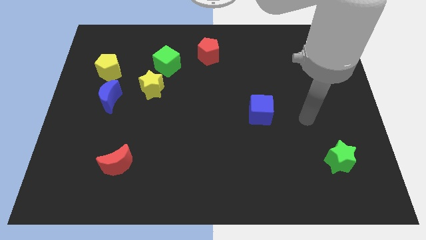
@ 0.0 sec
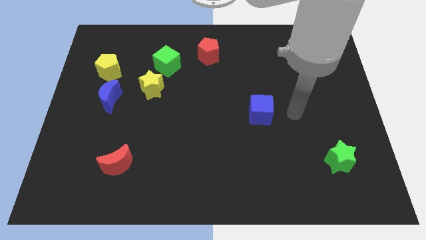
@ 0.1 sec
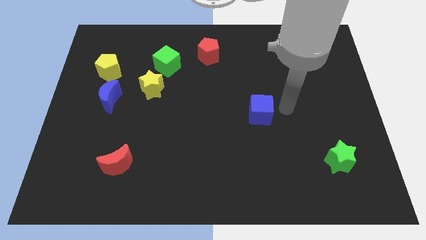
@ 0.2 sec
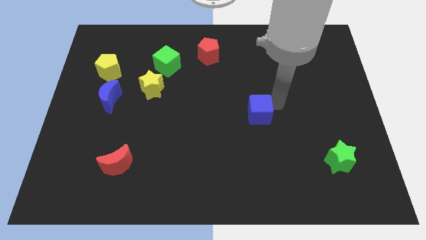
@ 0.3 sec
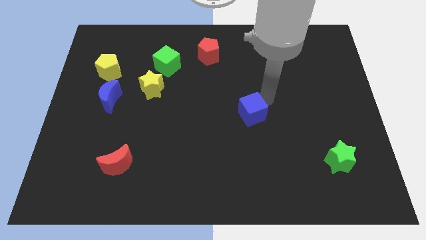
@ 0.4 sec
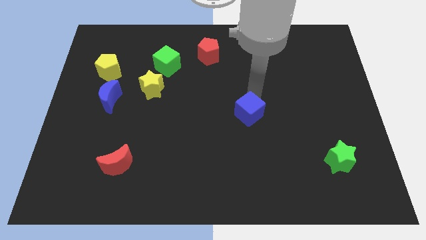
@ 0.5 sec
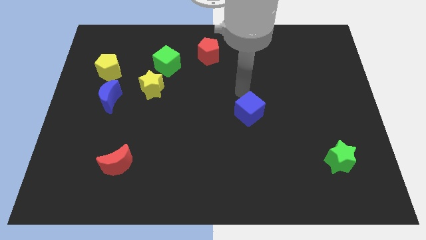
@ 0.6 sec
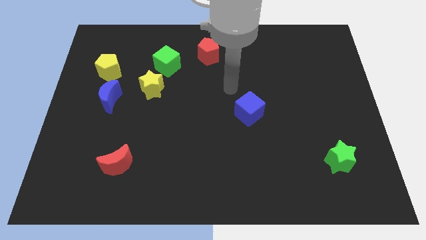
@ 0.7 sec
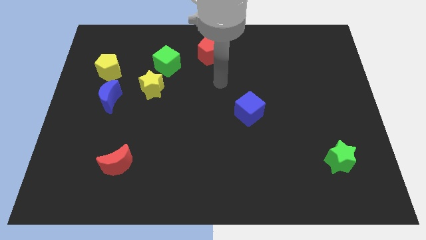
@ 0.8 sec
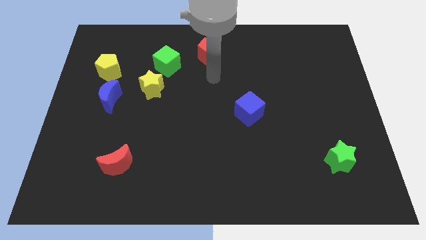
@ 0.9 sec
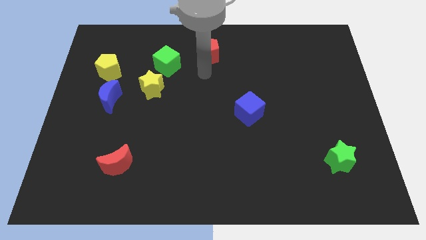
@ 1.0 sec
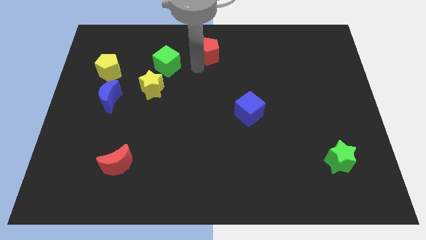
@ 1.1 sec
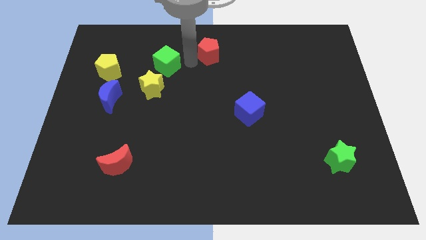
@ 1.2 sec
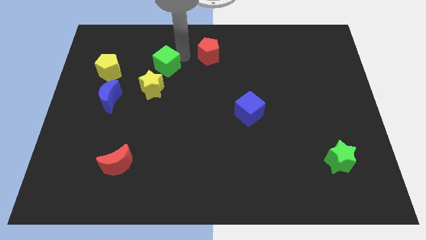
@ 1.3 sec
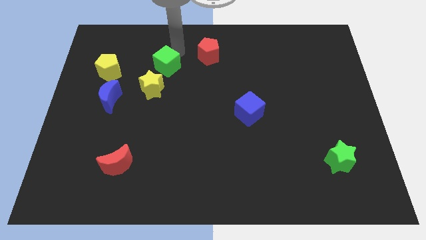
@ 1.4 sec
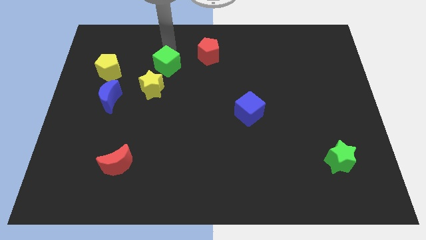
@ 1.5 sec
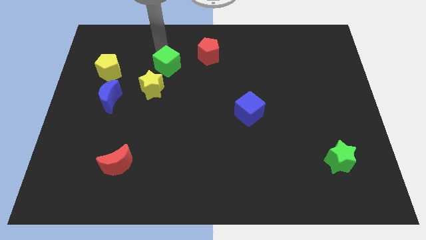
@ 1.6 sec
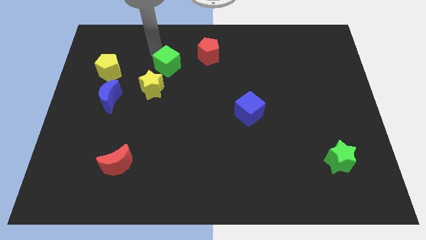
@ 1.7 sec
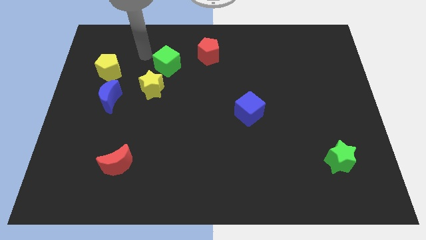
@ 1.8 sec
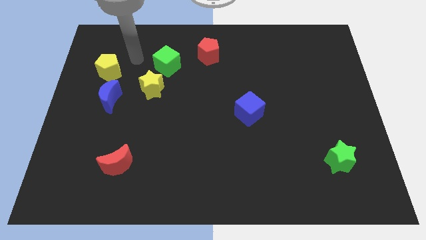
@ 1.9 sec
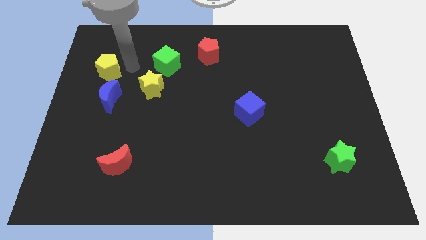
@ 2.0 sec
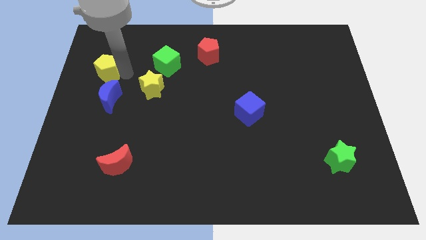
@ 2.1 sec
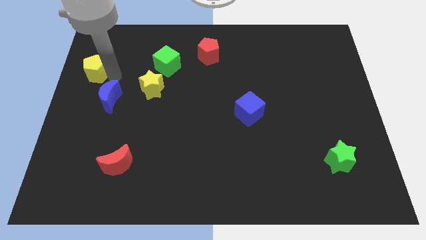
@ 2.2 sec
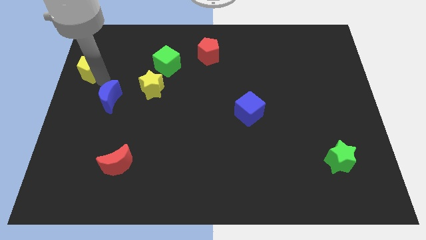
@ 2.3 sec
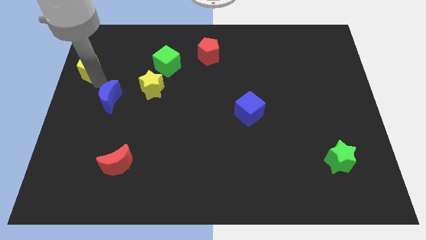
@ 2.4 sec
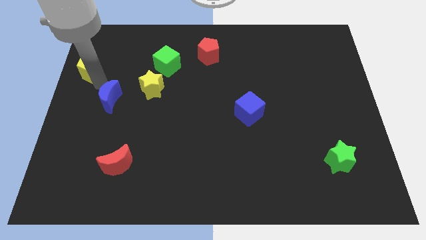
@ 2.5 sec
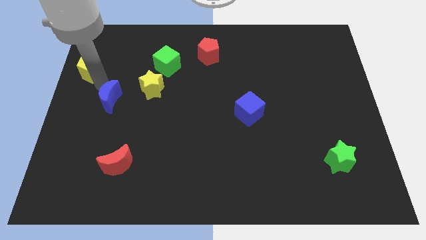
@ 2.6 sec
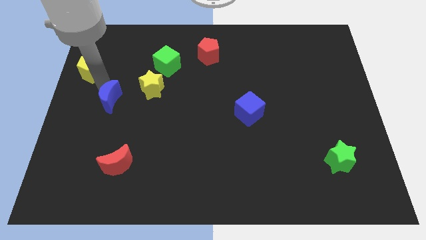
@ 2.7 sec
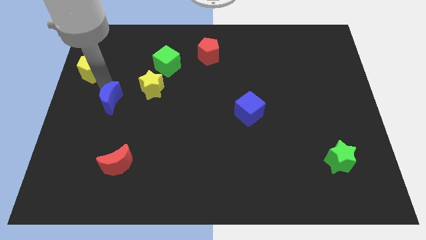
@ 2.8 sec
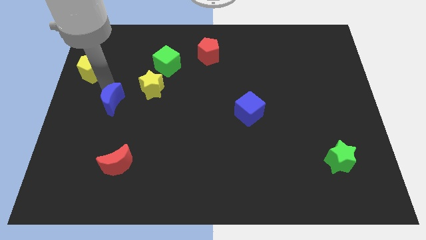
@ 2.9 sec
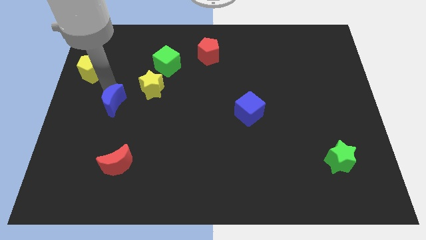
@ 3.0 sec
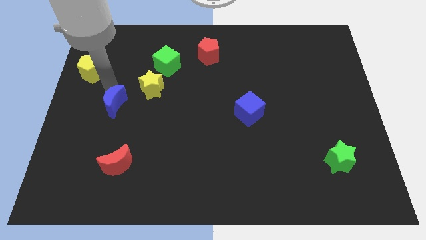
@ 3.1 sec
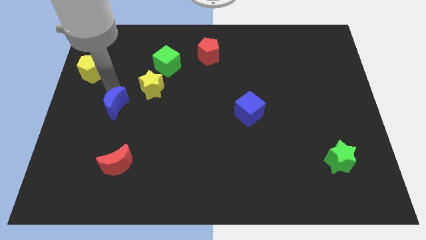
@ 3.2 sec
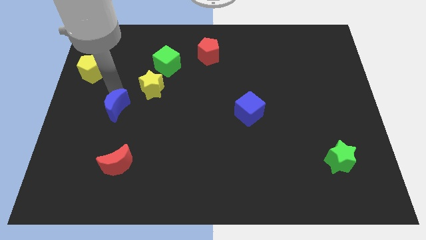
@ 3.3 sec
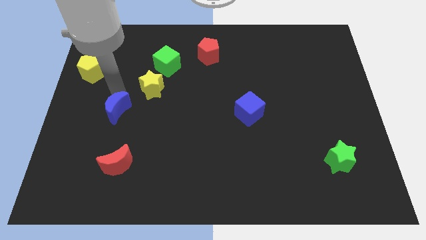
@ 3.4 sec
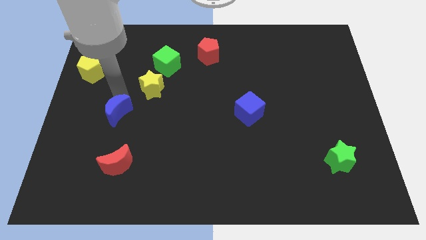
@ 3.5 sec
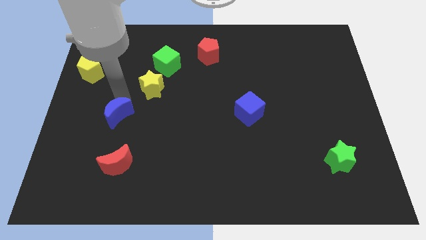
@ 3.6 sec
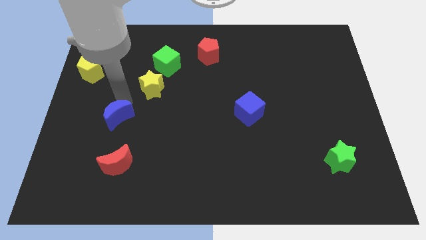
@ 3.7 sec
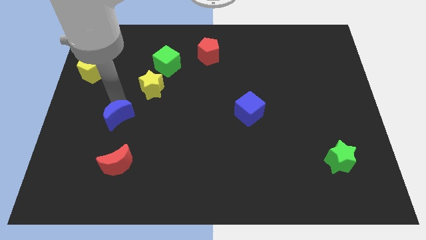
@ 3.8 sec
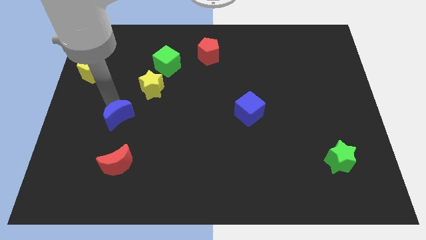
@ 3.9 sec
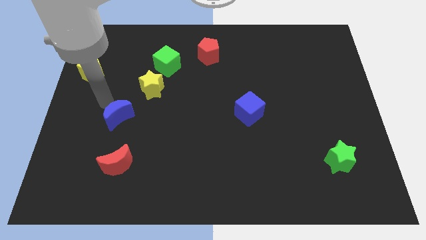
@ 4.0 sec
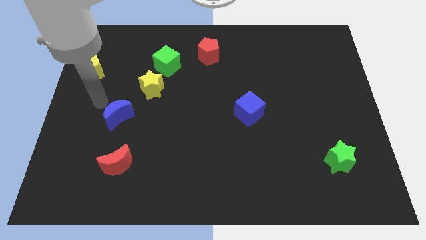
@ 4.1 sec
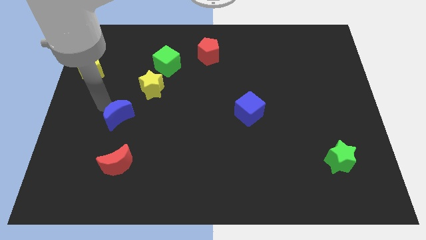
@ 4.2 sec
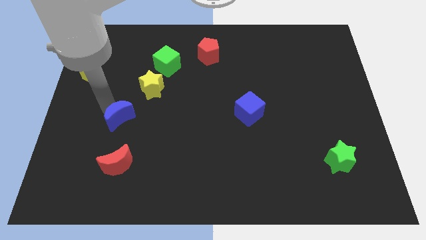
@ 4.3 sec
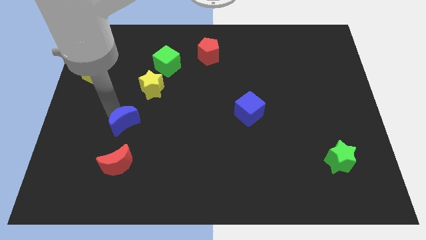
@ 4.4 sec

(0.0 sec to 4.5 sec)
slightly move the blue moon downwards and then right

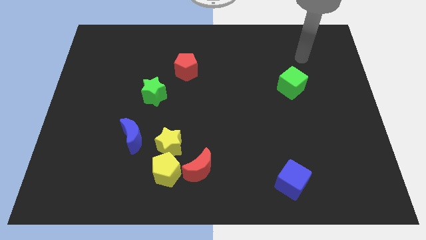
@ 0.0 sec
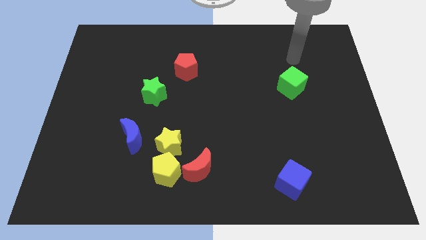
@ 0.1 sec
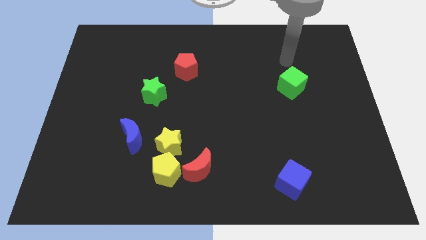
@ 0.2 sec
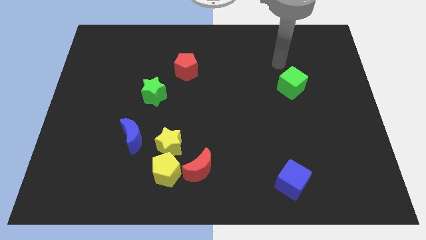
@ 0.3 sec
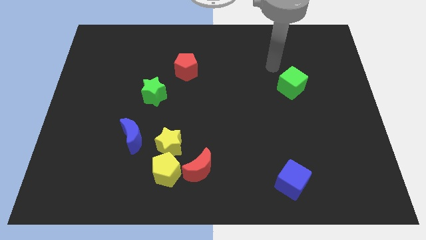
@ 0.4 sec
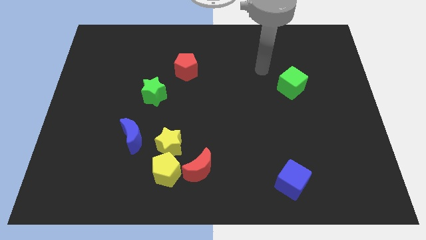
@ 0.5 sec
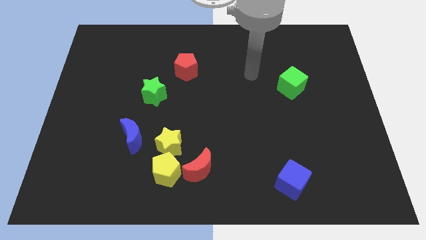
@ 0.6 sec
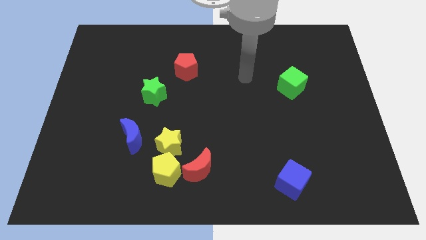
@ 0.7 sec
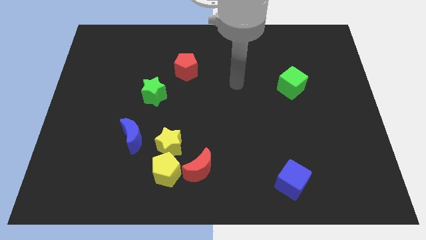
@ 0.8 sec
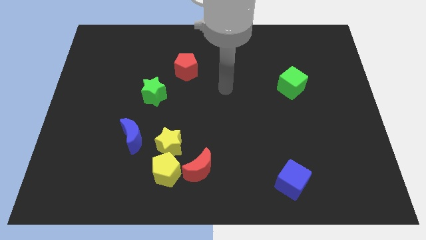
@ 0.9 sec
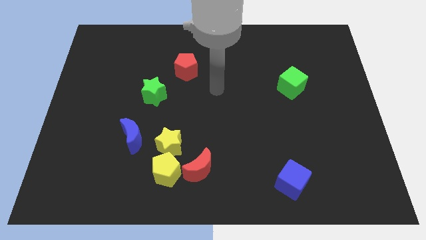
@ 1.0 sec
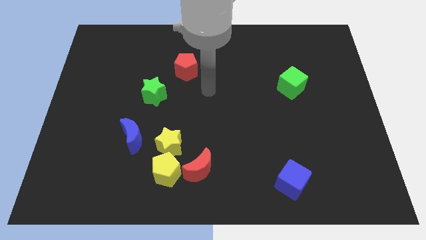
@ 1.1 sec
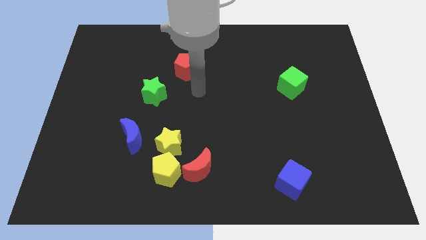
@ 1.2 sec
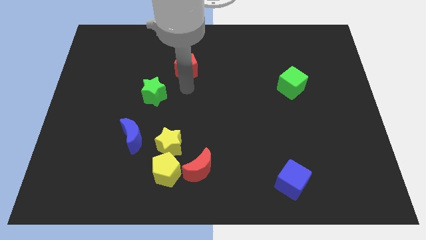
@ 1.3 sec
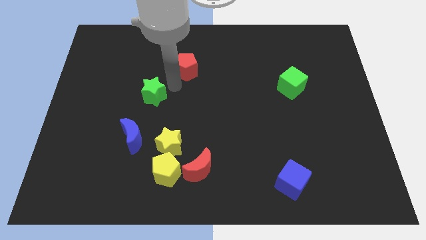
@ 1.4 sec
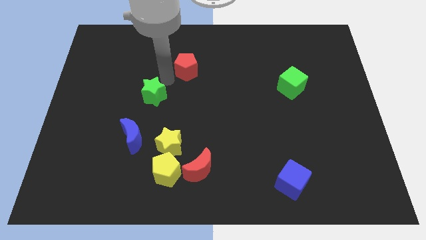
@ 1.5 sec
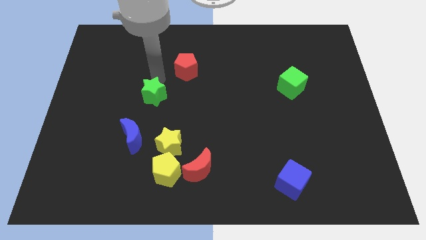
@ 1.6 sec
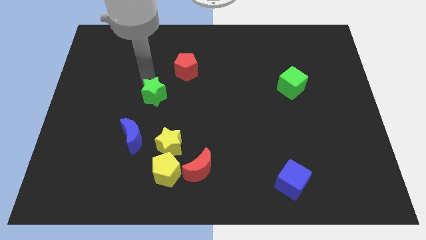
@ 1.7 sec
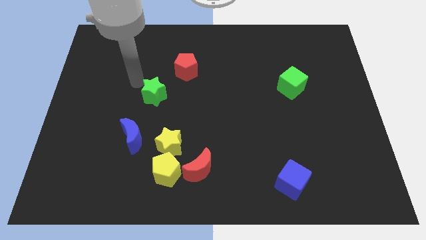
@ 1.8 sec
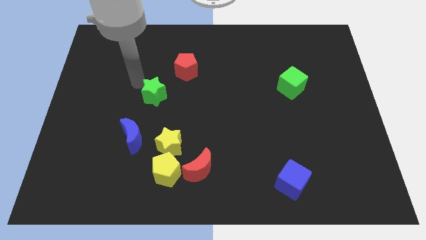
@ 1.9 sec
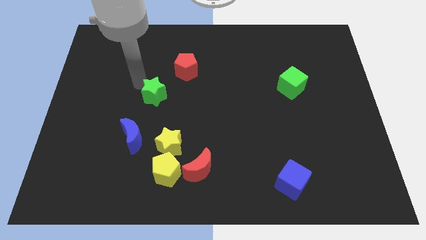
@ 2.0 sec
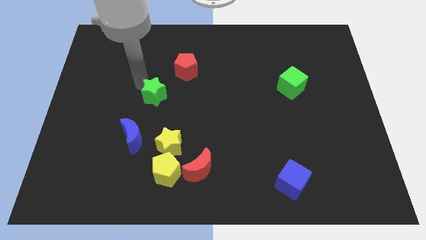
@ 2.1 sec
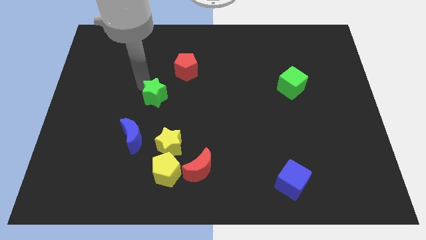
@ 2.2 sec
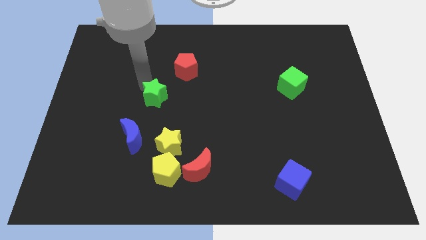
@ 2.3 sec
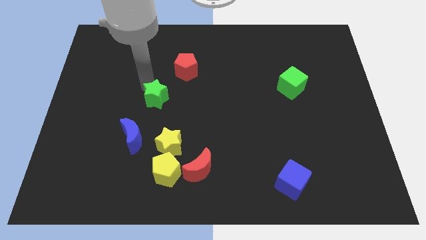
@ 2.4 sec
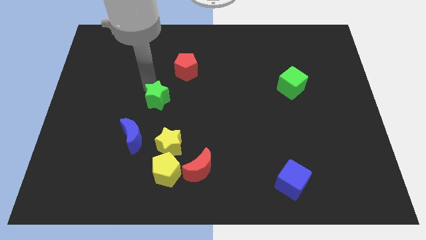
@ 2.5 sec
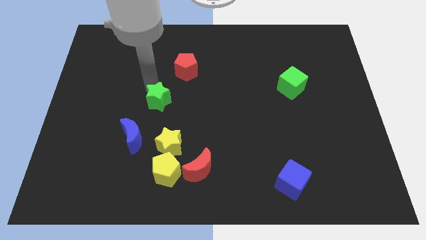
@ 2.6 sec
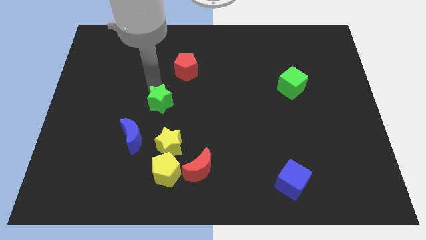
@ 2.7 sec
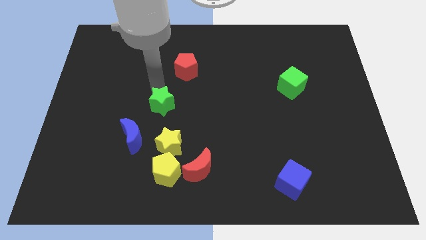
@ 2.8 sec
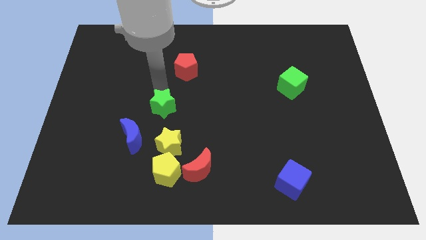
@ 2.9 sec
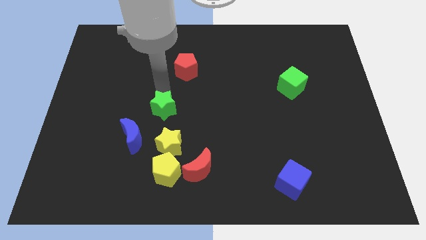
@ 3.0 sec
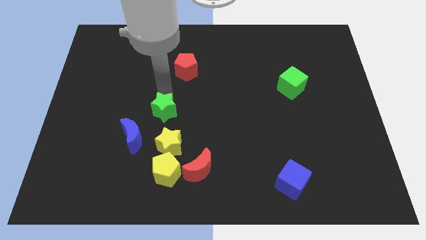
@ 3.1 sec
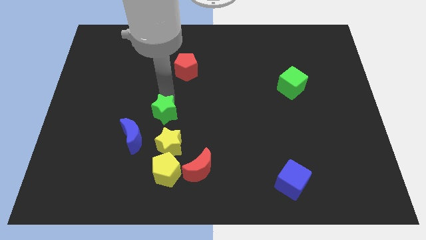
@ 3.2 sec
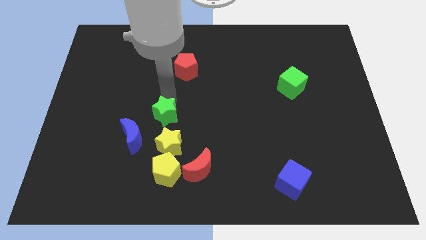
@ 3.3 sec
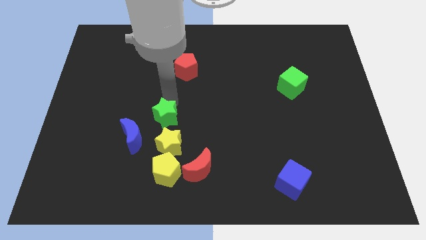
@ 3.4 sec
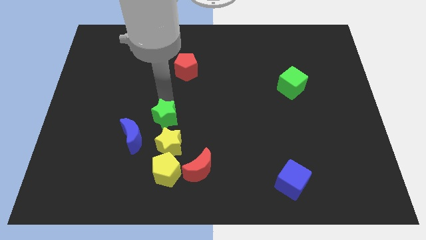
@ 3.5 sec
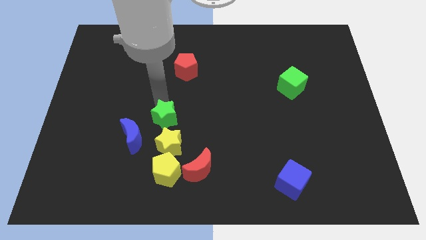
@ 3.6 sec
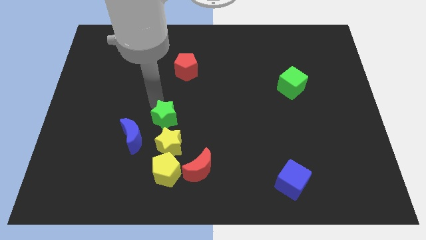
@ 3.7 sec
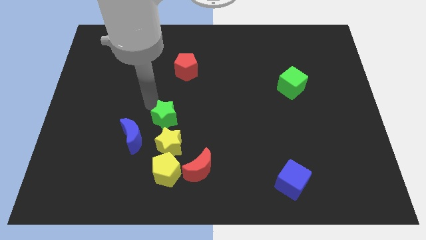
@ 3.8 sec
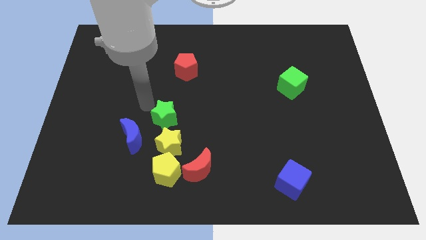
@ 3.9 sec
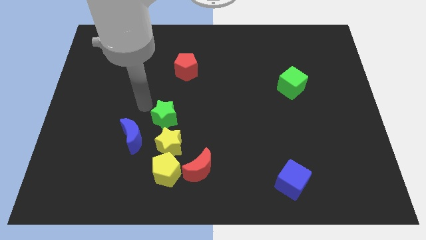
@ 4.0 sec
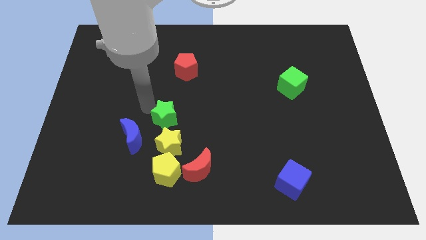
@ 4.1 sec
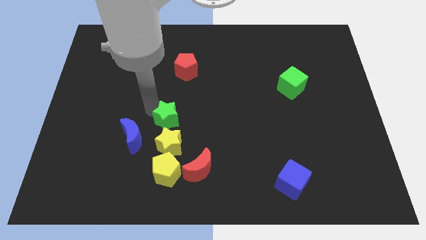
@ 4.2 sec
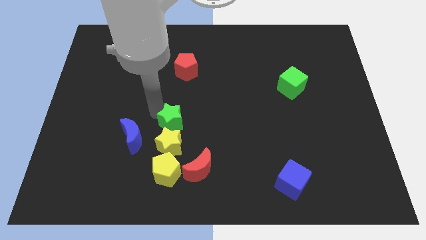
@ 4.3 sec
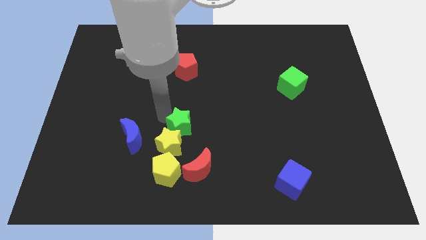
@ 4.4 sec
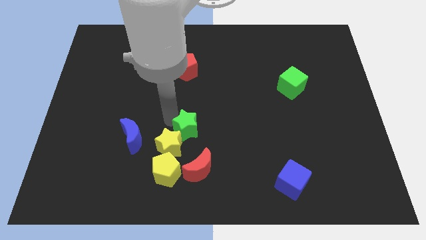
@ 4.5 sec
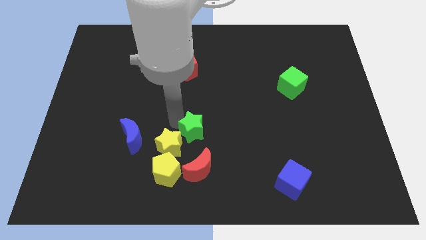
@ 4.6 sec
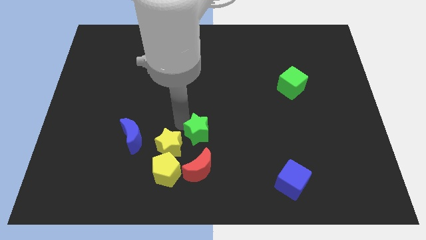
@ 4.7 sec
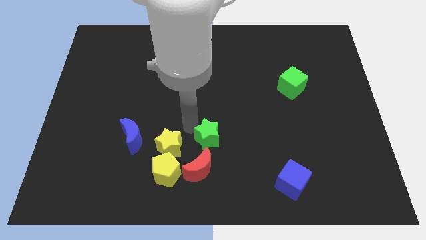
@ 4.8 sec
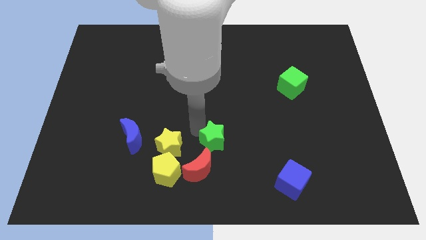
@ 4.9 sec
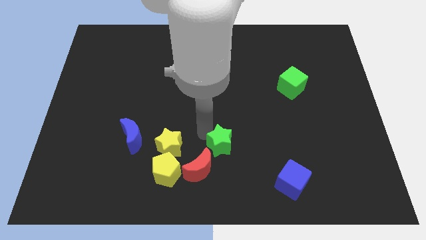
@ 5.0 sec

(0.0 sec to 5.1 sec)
push the green star downwards and to the right
